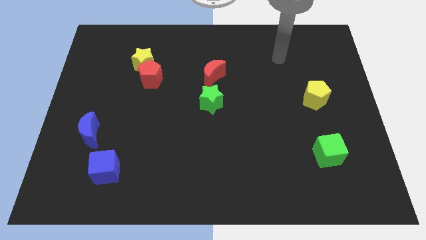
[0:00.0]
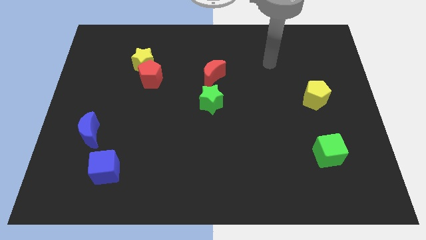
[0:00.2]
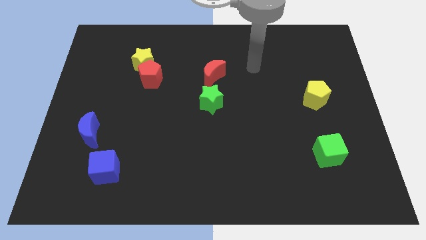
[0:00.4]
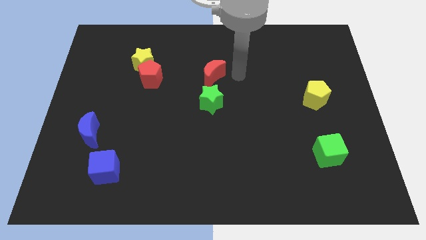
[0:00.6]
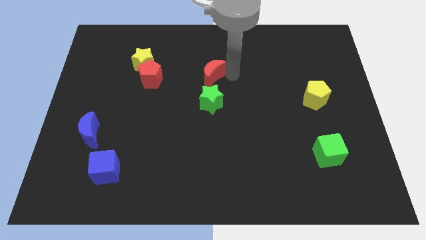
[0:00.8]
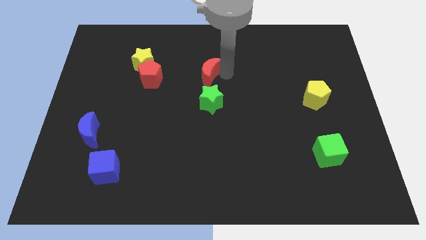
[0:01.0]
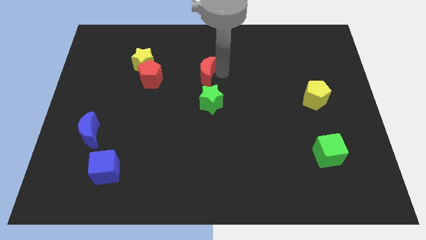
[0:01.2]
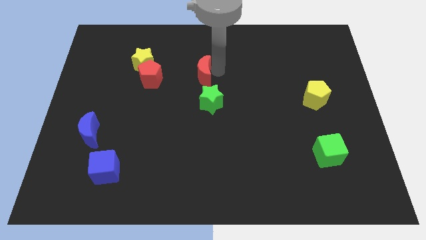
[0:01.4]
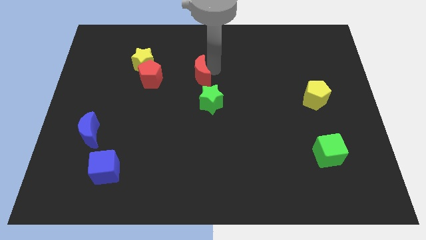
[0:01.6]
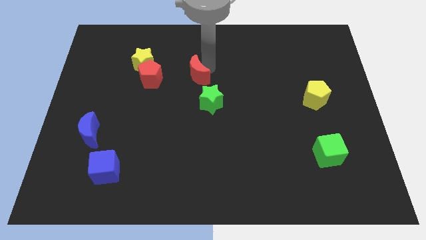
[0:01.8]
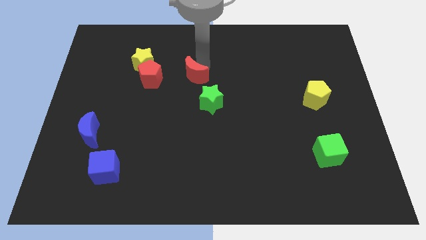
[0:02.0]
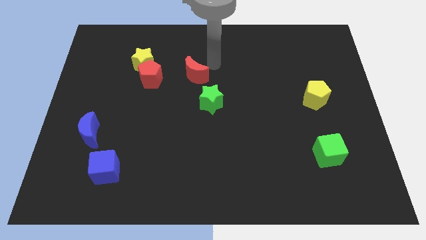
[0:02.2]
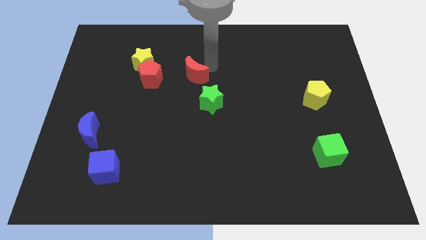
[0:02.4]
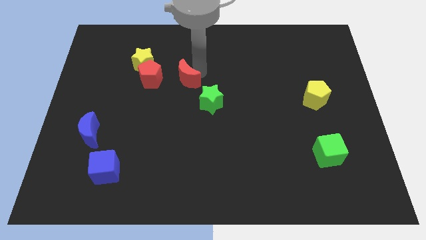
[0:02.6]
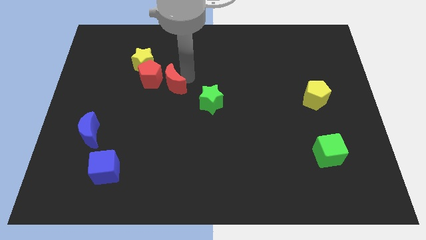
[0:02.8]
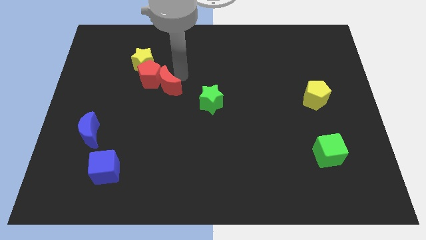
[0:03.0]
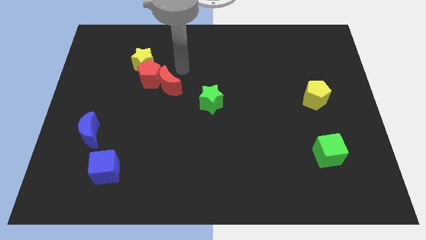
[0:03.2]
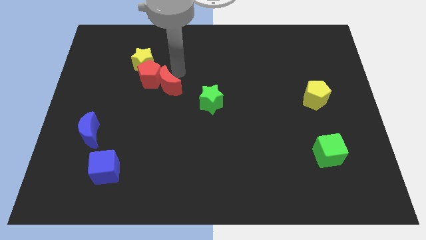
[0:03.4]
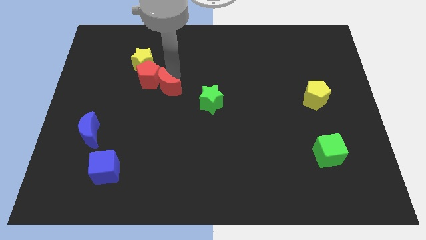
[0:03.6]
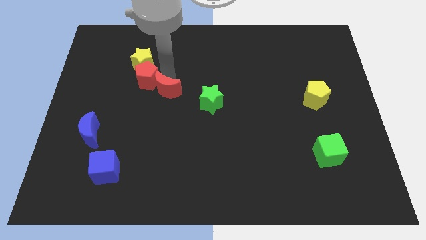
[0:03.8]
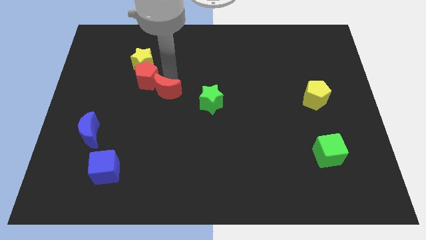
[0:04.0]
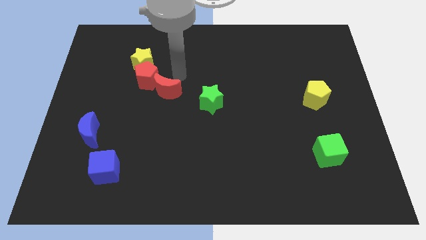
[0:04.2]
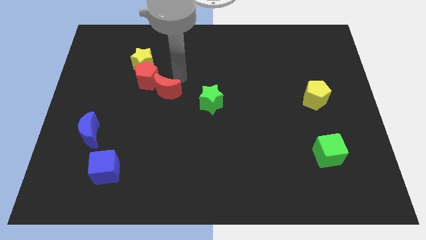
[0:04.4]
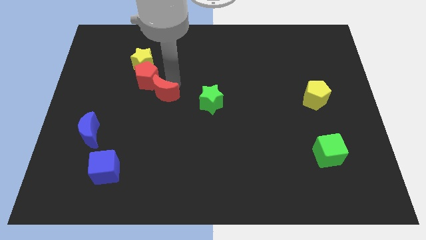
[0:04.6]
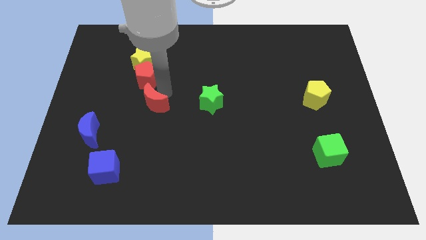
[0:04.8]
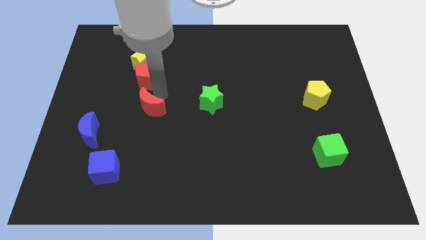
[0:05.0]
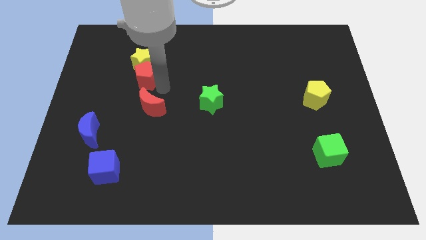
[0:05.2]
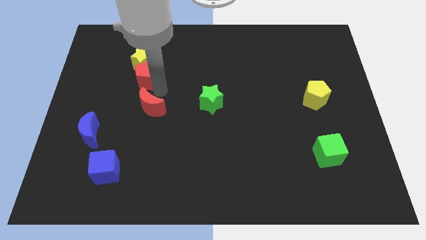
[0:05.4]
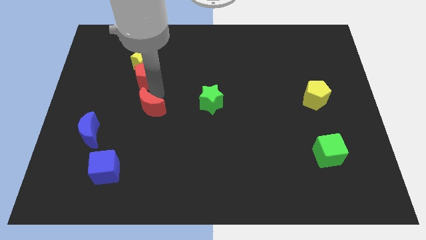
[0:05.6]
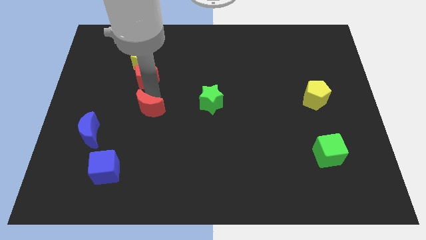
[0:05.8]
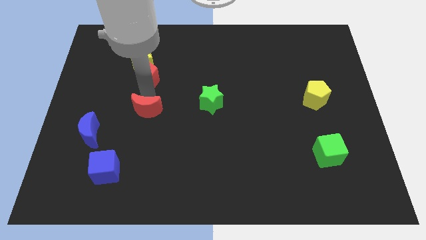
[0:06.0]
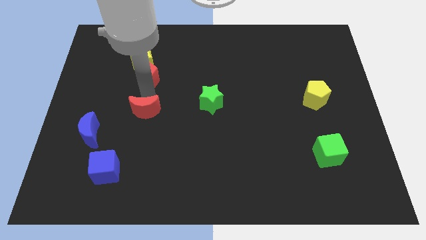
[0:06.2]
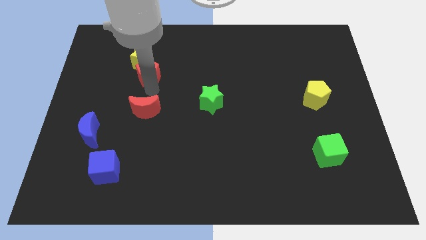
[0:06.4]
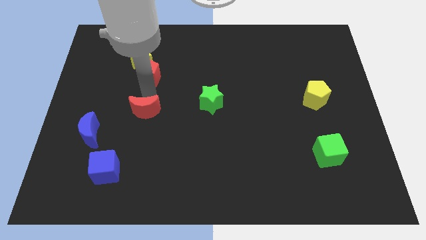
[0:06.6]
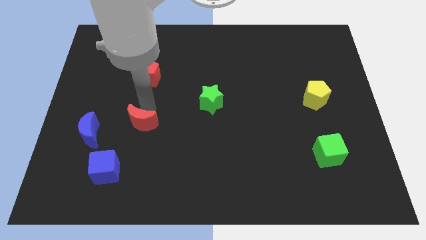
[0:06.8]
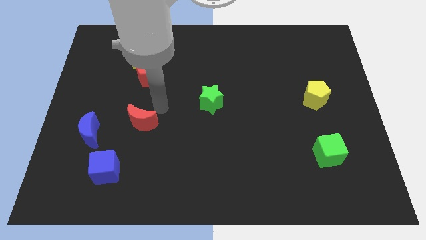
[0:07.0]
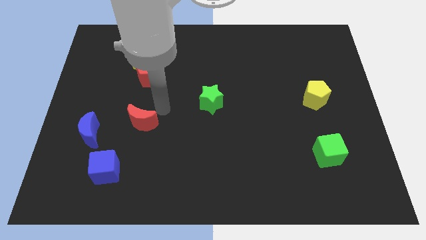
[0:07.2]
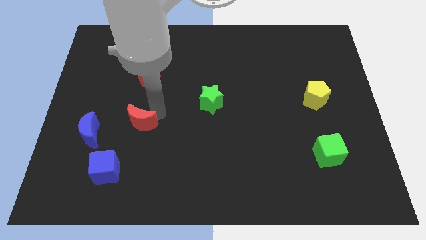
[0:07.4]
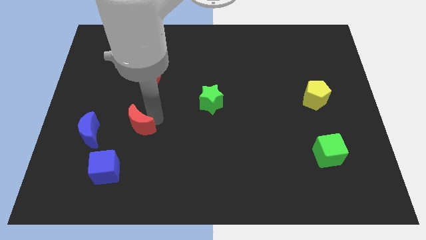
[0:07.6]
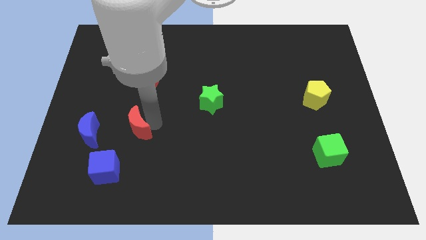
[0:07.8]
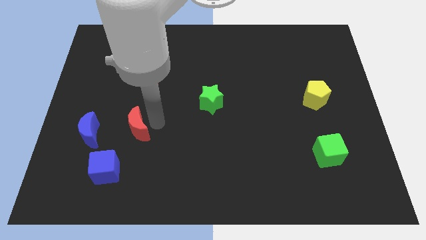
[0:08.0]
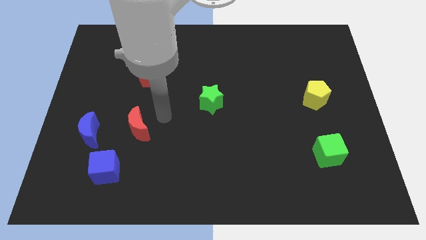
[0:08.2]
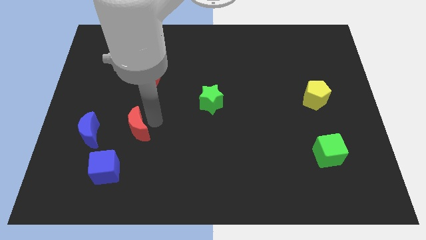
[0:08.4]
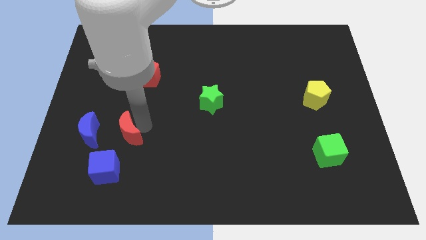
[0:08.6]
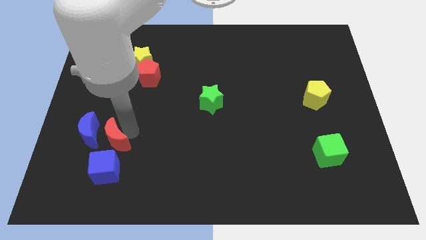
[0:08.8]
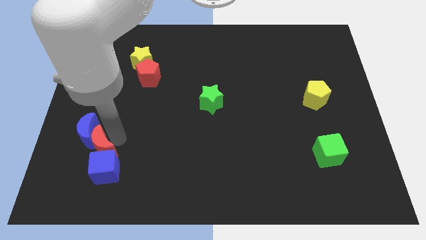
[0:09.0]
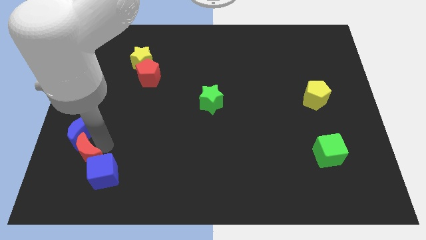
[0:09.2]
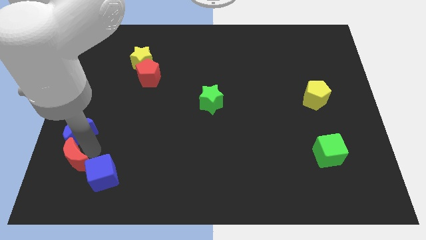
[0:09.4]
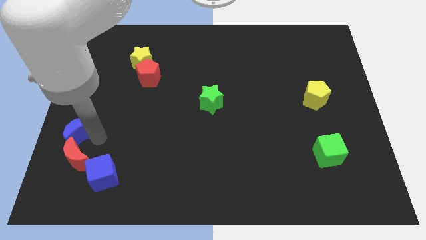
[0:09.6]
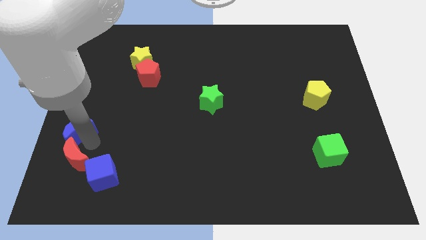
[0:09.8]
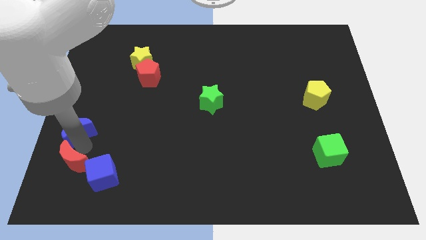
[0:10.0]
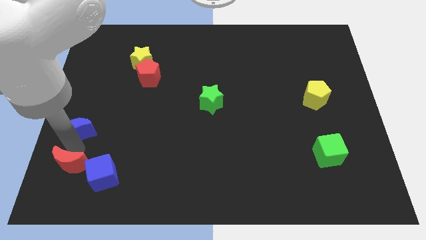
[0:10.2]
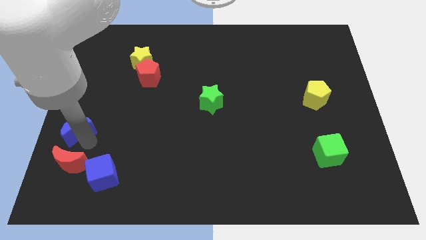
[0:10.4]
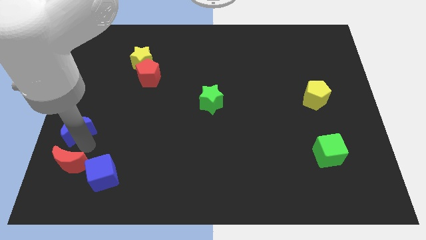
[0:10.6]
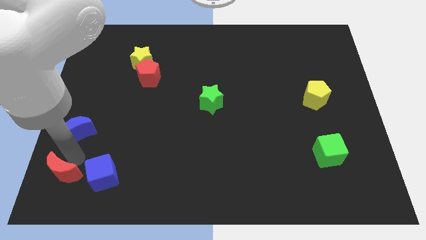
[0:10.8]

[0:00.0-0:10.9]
slide the red moon to the bottom left of the board

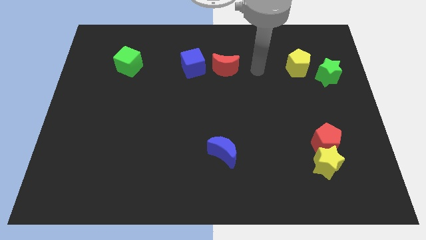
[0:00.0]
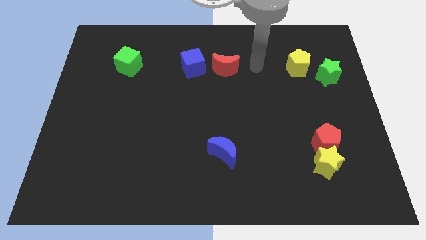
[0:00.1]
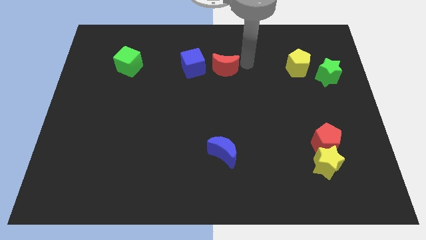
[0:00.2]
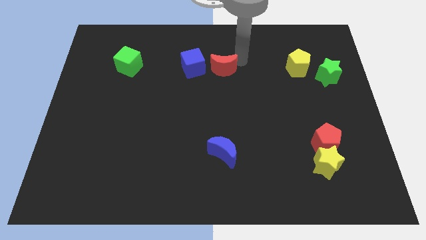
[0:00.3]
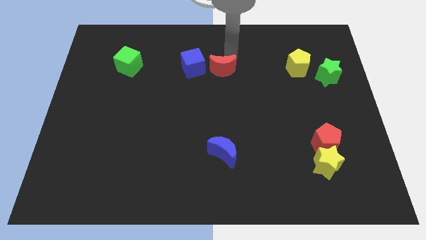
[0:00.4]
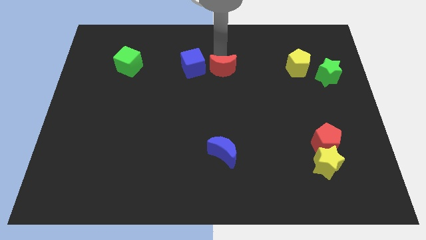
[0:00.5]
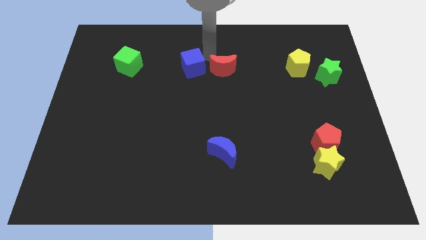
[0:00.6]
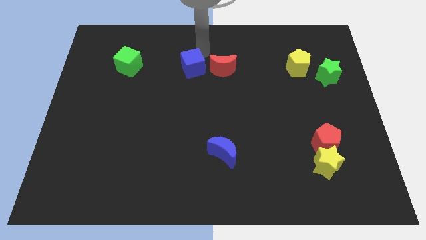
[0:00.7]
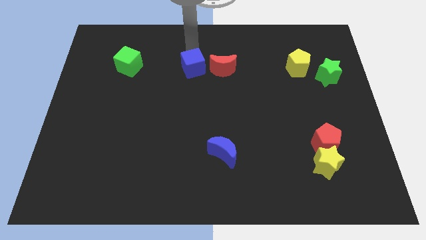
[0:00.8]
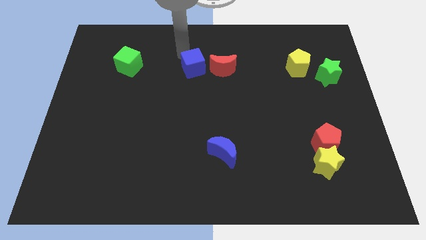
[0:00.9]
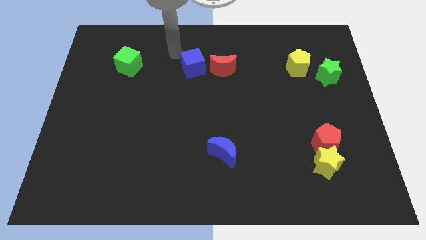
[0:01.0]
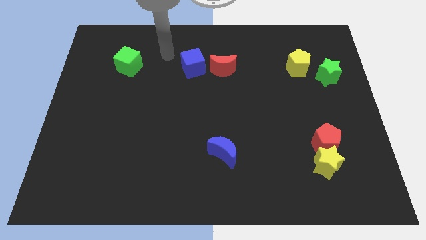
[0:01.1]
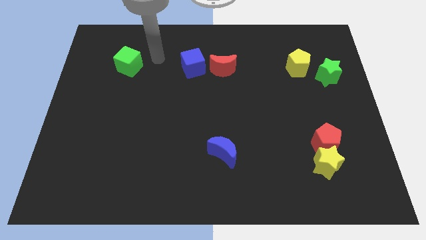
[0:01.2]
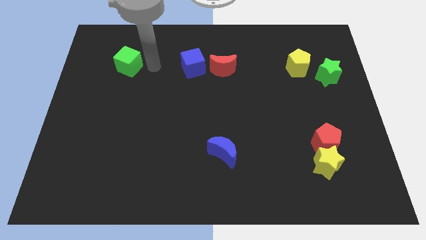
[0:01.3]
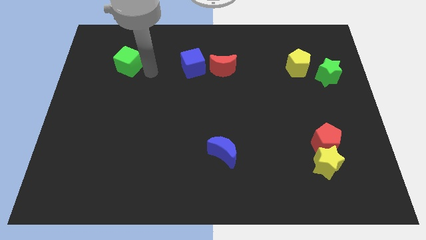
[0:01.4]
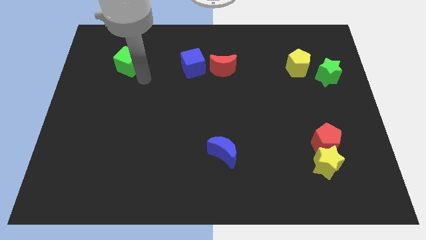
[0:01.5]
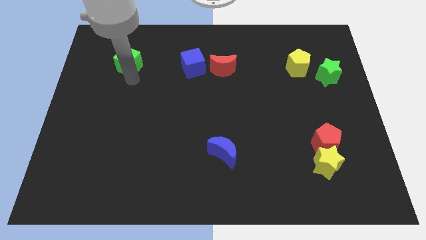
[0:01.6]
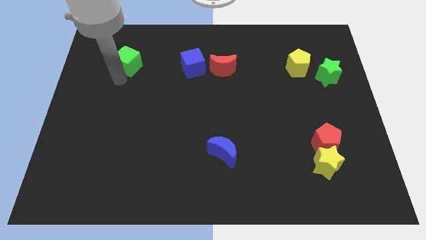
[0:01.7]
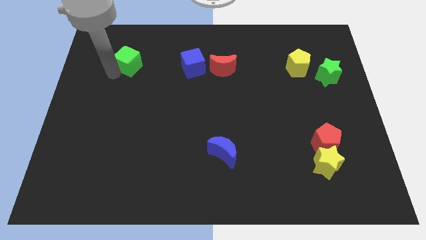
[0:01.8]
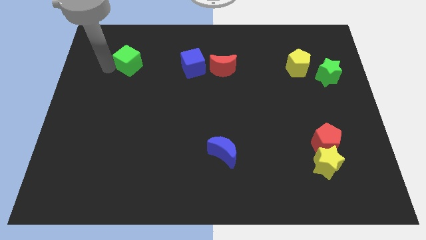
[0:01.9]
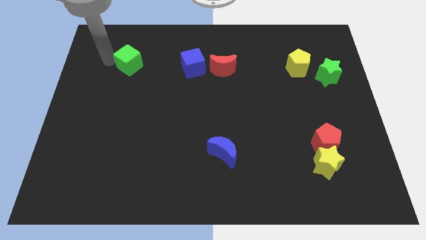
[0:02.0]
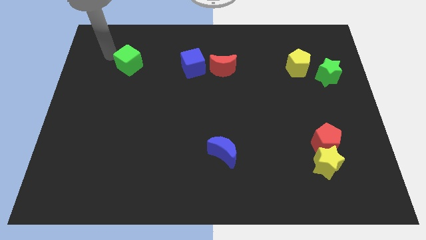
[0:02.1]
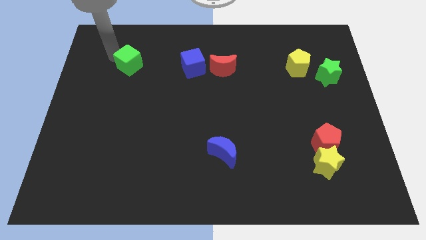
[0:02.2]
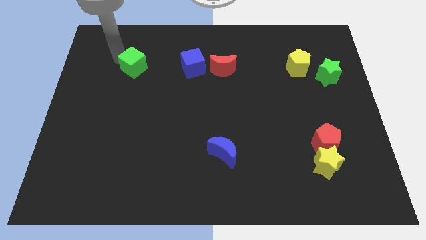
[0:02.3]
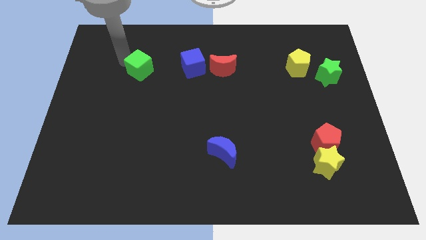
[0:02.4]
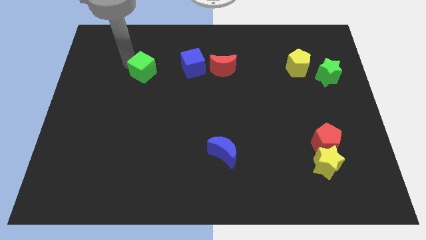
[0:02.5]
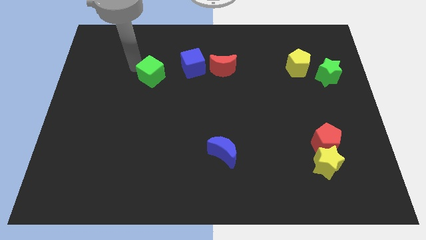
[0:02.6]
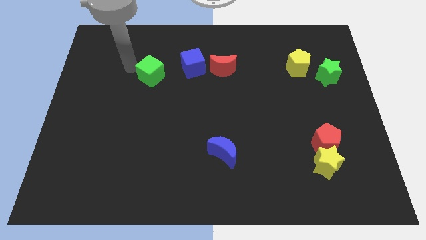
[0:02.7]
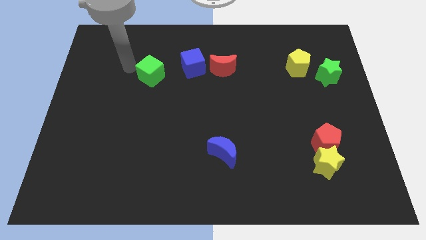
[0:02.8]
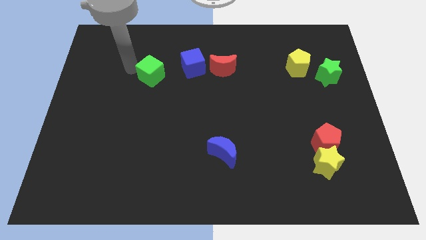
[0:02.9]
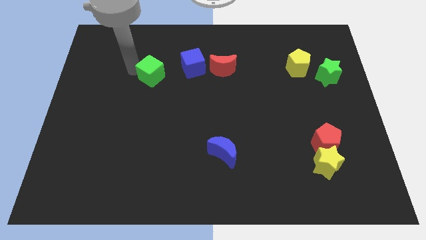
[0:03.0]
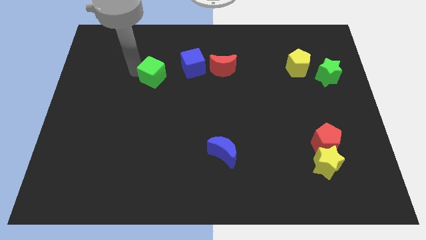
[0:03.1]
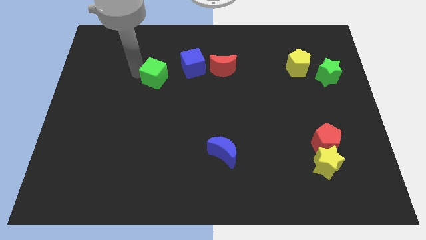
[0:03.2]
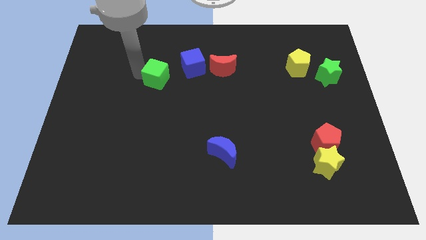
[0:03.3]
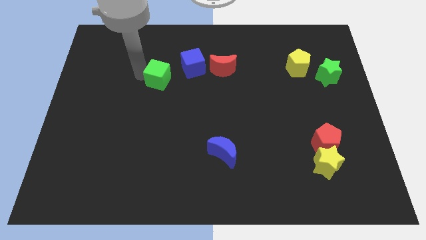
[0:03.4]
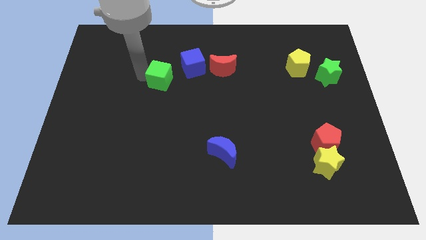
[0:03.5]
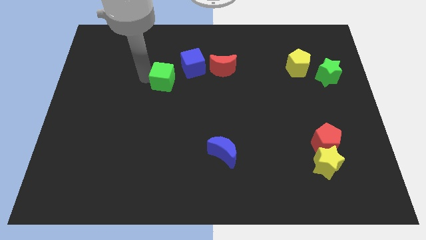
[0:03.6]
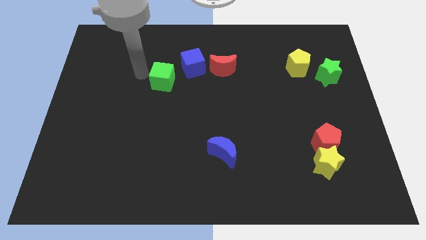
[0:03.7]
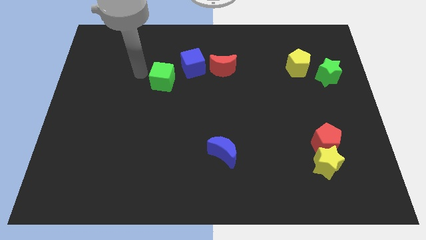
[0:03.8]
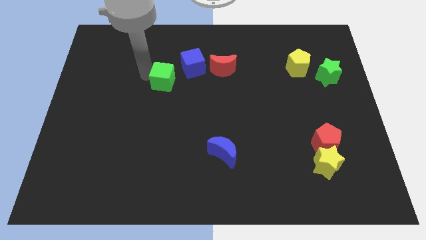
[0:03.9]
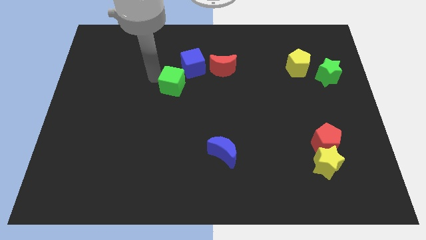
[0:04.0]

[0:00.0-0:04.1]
put the green cube to the middle
